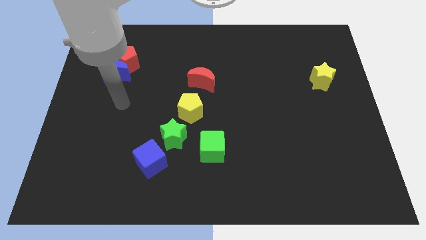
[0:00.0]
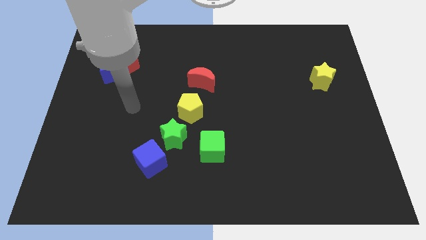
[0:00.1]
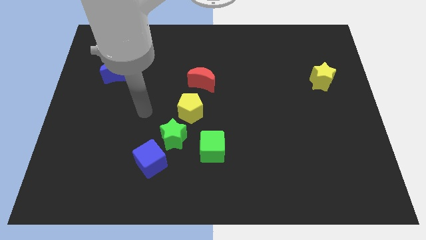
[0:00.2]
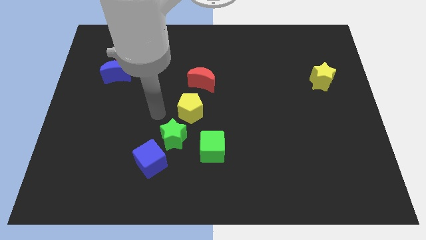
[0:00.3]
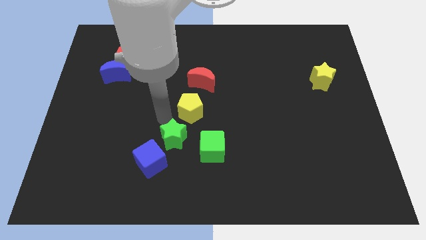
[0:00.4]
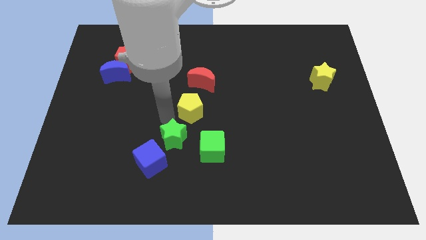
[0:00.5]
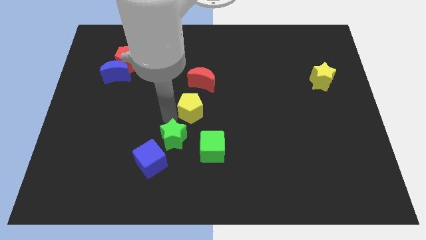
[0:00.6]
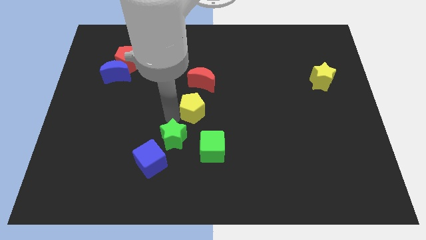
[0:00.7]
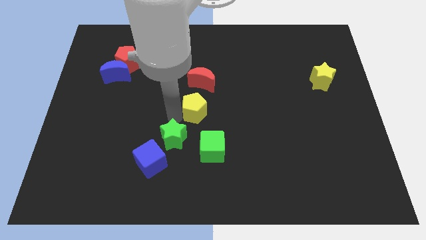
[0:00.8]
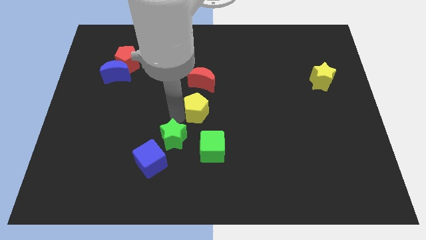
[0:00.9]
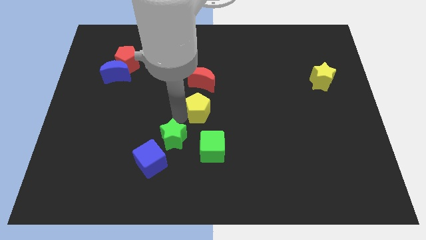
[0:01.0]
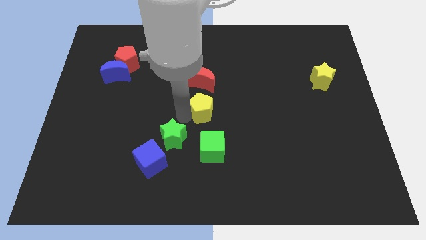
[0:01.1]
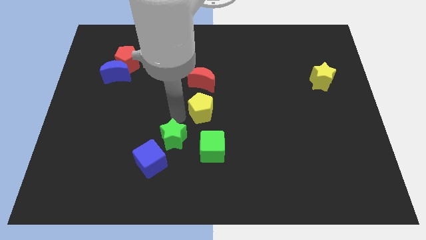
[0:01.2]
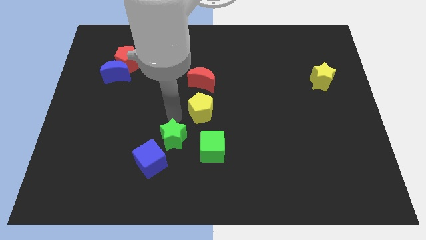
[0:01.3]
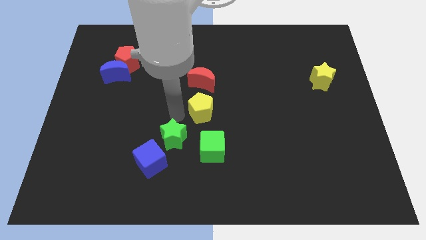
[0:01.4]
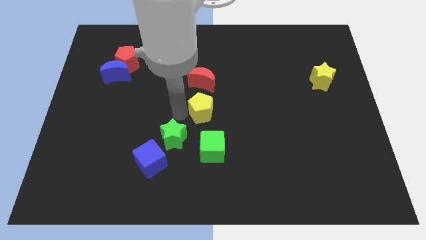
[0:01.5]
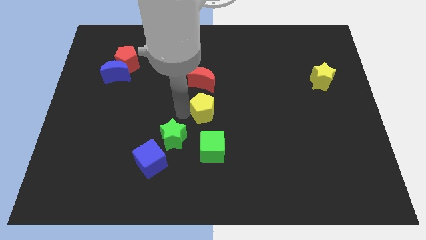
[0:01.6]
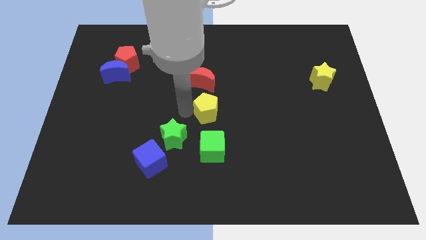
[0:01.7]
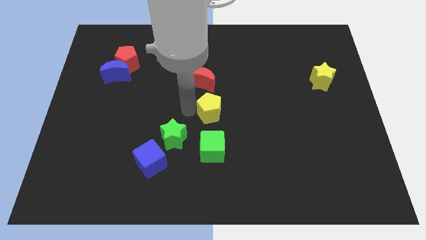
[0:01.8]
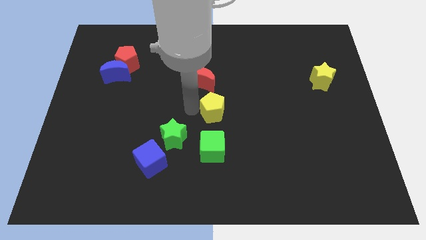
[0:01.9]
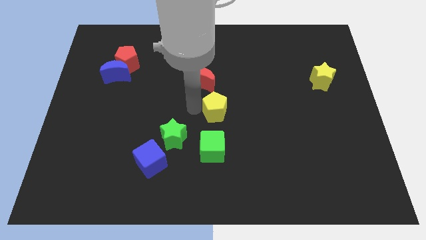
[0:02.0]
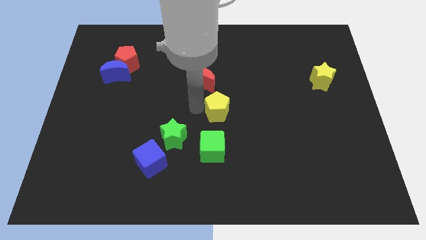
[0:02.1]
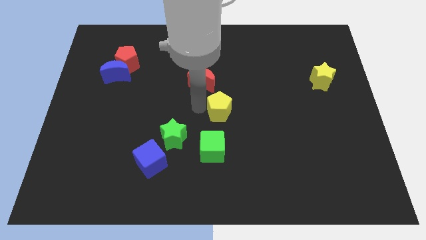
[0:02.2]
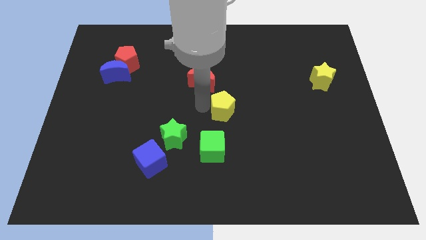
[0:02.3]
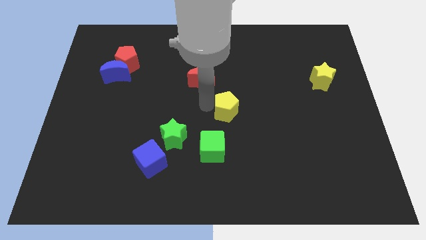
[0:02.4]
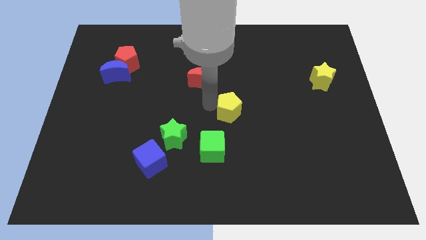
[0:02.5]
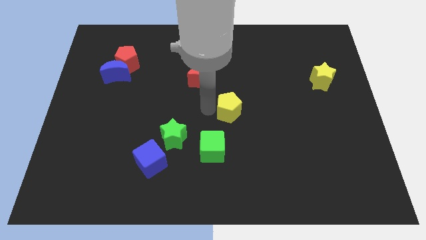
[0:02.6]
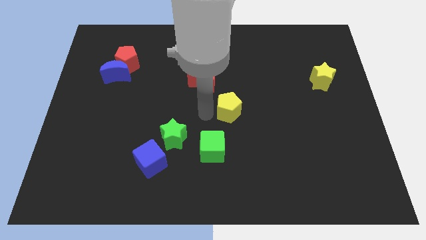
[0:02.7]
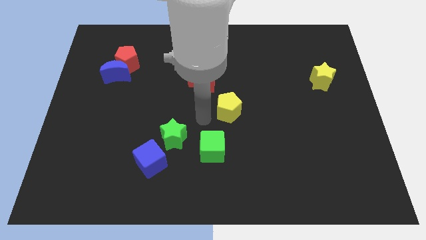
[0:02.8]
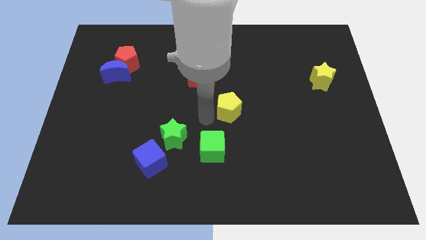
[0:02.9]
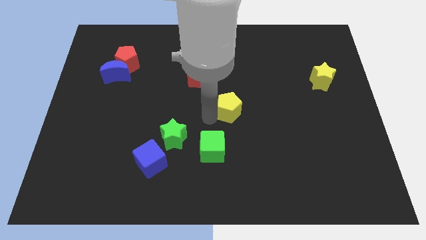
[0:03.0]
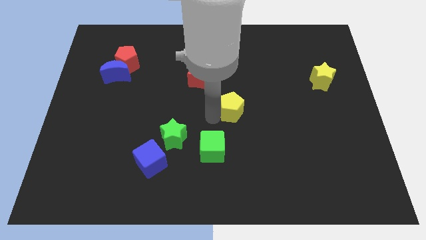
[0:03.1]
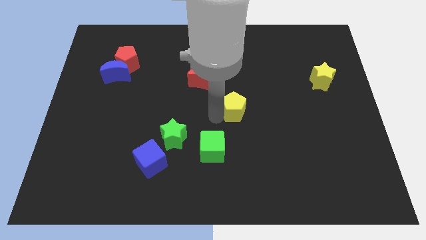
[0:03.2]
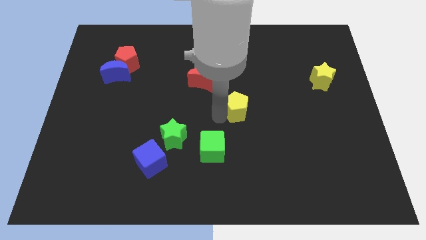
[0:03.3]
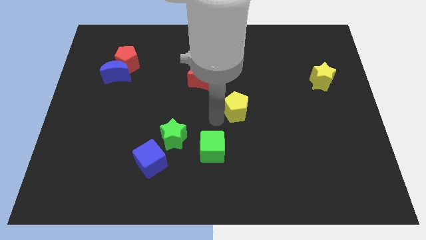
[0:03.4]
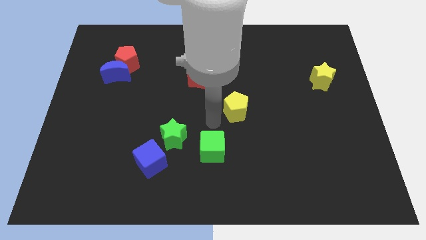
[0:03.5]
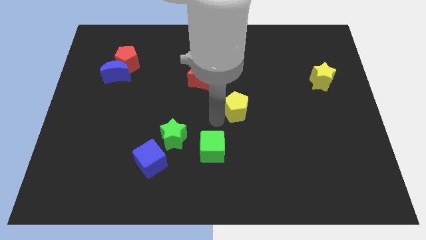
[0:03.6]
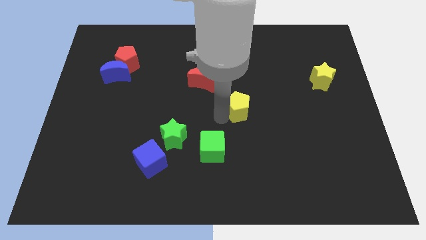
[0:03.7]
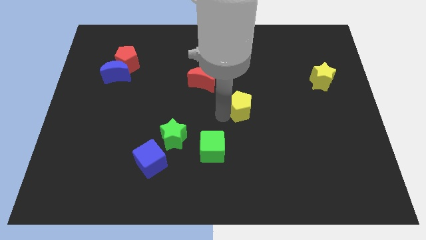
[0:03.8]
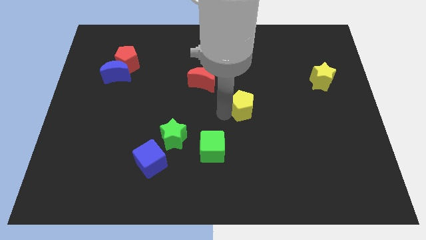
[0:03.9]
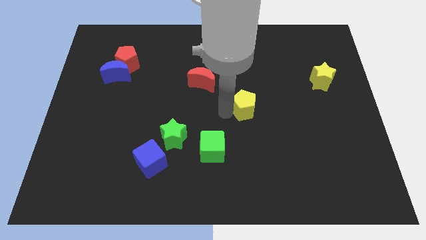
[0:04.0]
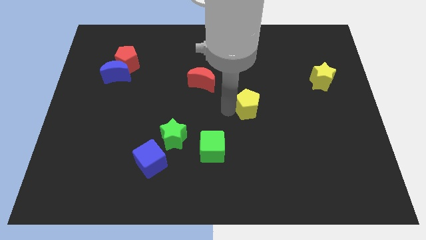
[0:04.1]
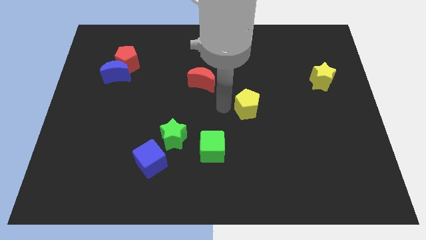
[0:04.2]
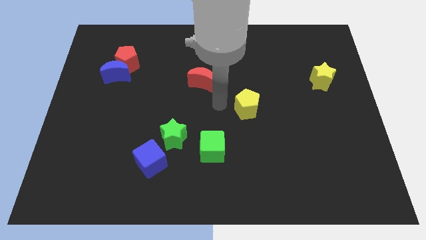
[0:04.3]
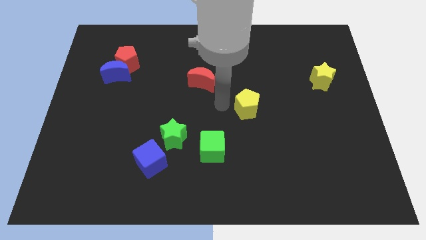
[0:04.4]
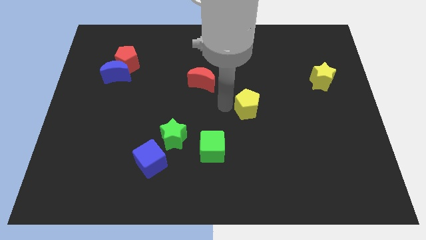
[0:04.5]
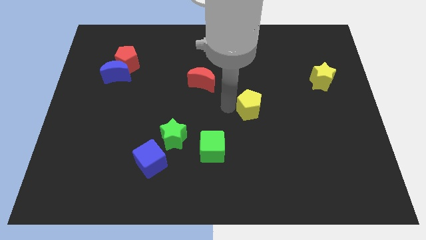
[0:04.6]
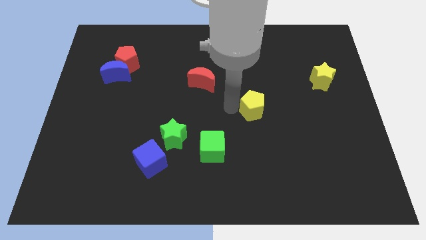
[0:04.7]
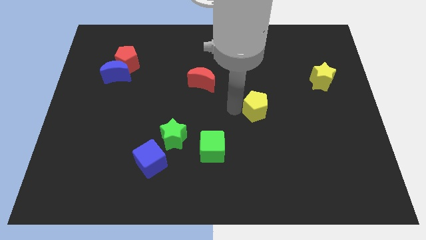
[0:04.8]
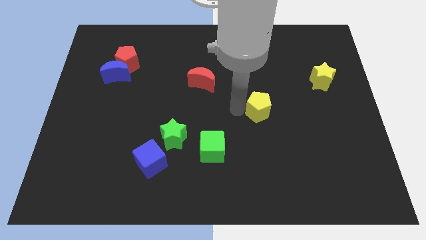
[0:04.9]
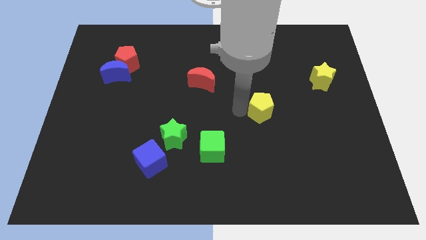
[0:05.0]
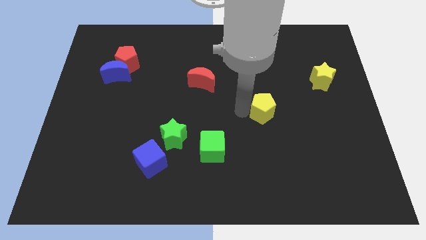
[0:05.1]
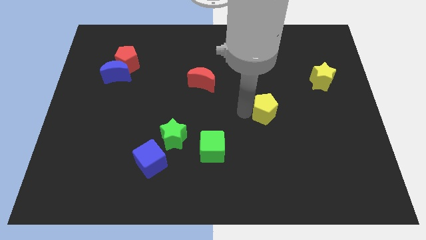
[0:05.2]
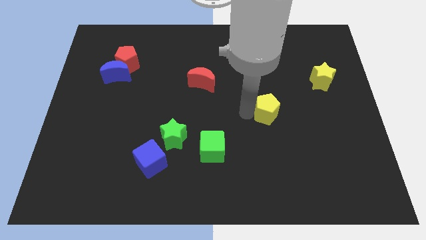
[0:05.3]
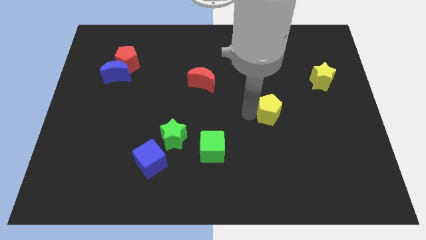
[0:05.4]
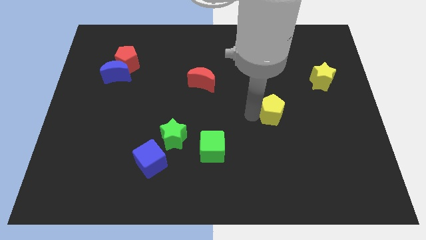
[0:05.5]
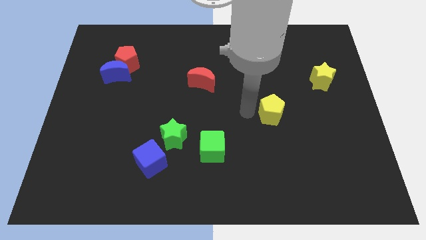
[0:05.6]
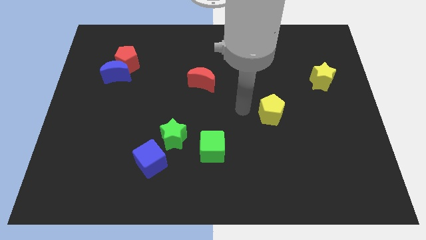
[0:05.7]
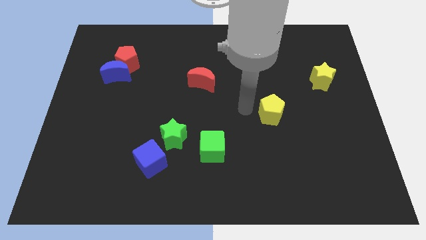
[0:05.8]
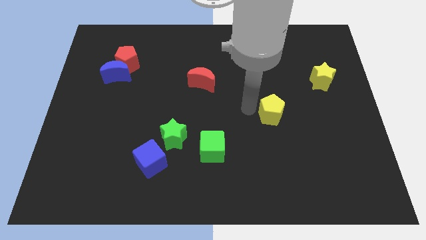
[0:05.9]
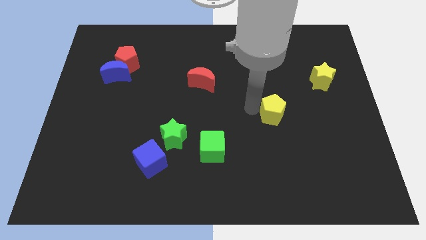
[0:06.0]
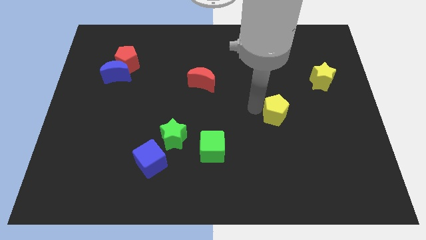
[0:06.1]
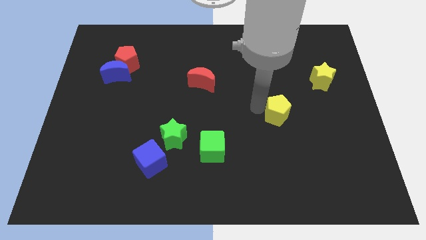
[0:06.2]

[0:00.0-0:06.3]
push the yellow pentagon right

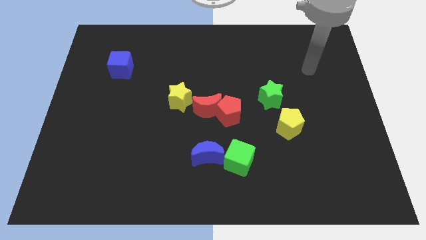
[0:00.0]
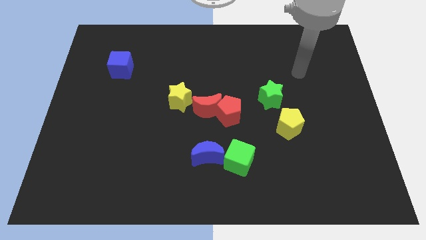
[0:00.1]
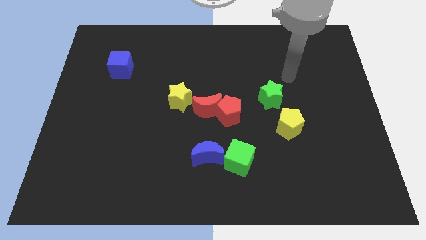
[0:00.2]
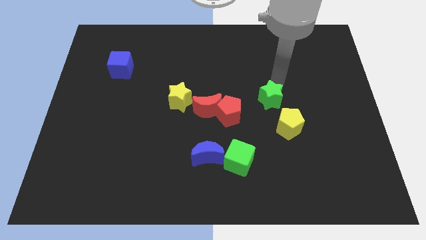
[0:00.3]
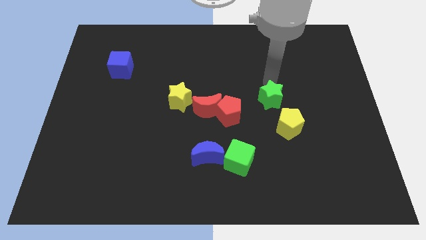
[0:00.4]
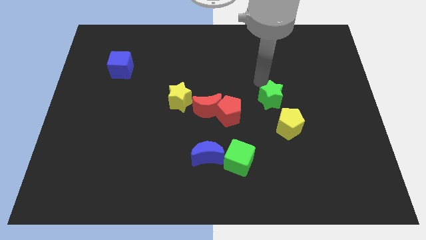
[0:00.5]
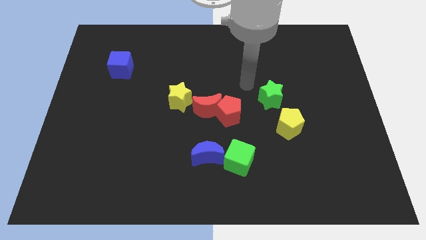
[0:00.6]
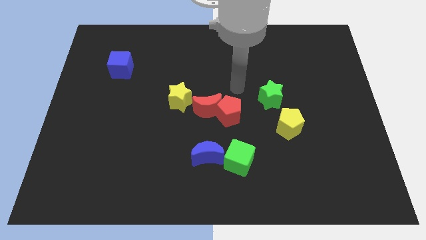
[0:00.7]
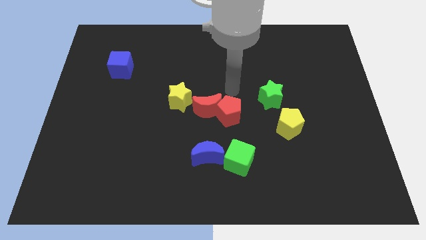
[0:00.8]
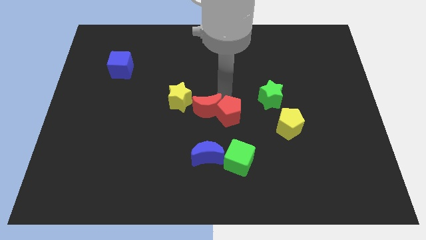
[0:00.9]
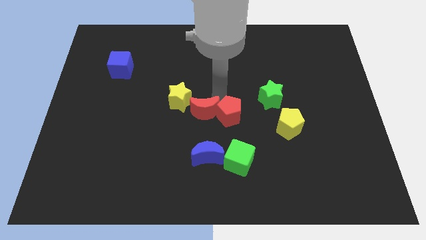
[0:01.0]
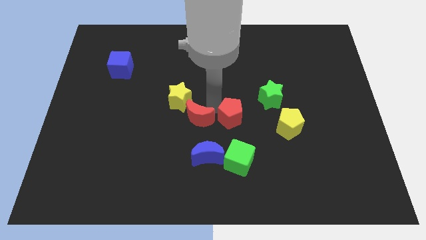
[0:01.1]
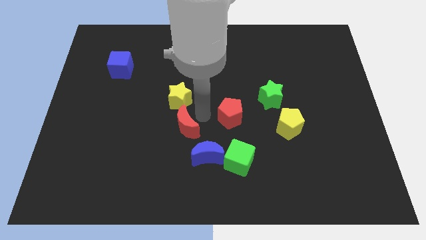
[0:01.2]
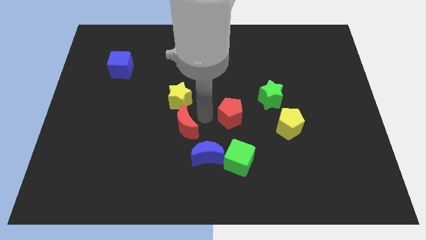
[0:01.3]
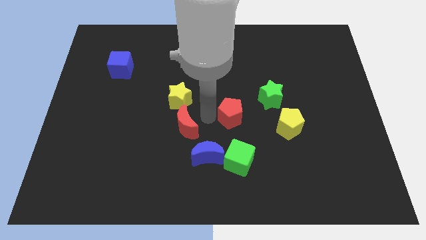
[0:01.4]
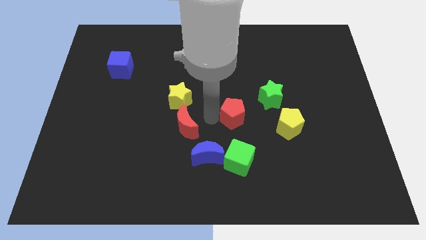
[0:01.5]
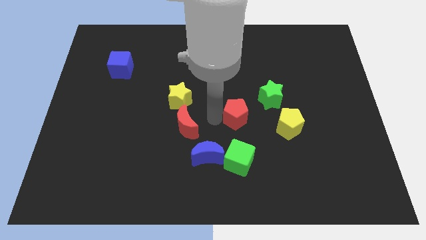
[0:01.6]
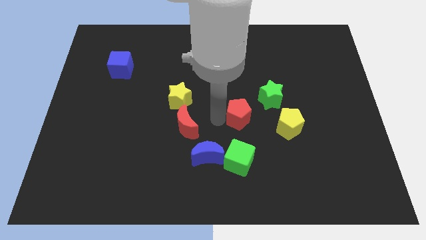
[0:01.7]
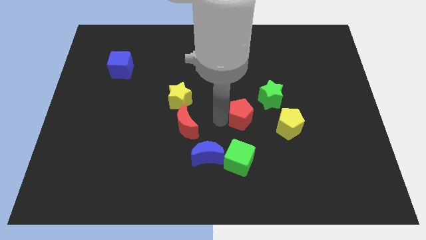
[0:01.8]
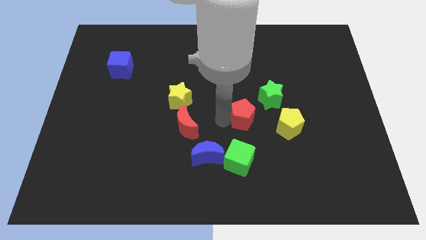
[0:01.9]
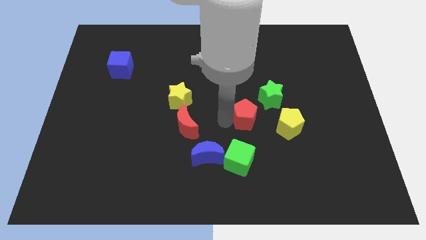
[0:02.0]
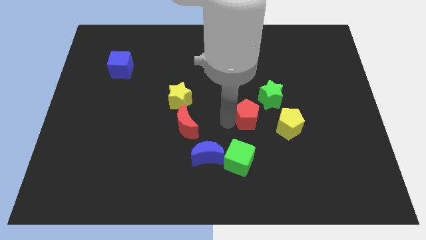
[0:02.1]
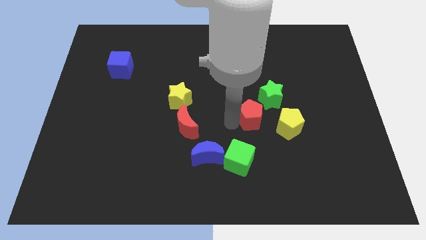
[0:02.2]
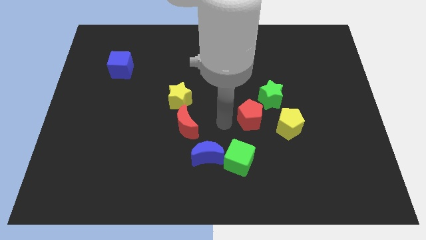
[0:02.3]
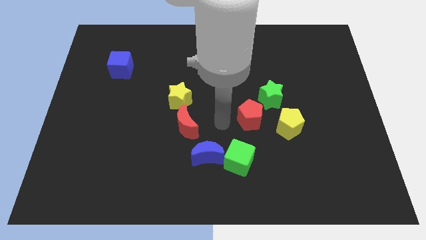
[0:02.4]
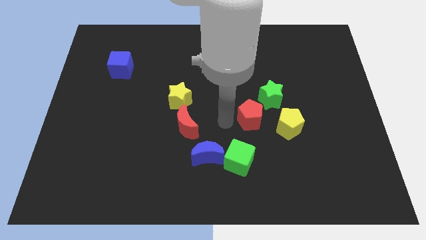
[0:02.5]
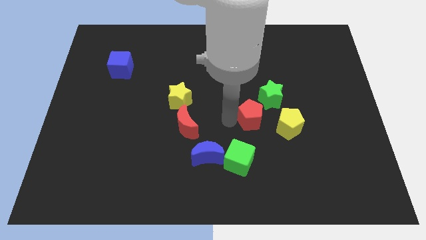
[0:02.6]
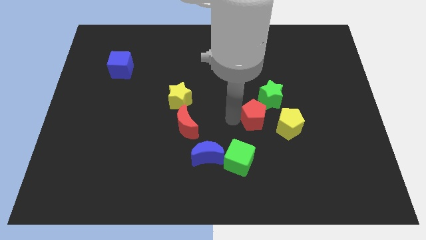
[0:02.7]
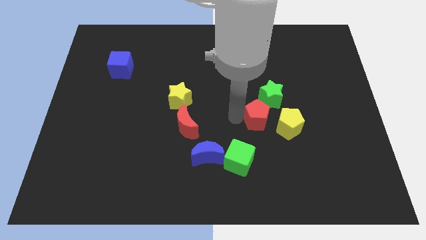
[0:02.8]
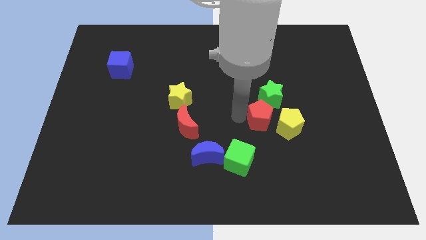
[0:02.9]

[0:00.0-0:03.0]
slightly move the red pentagon right
